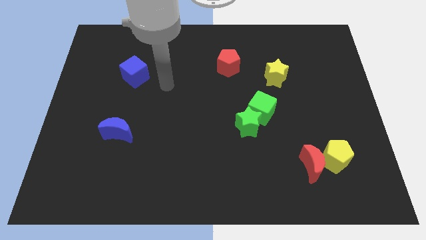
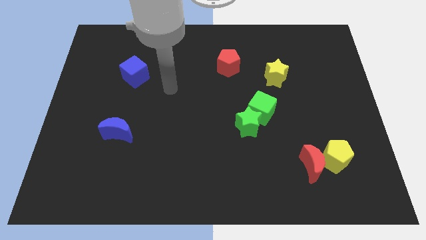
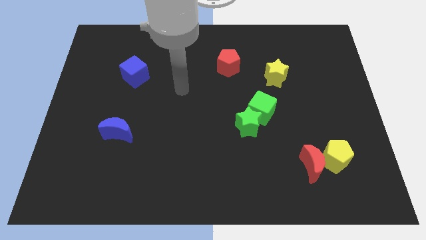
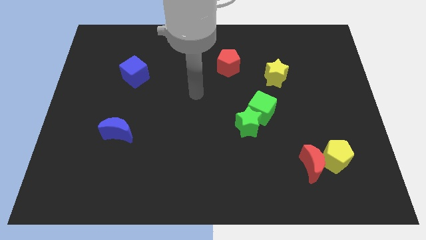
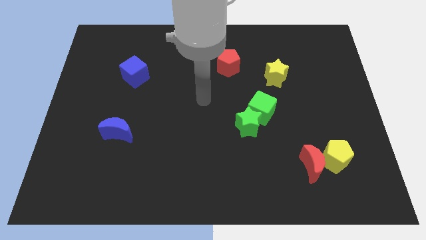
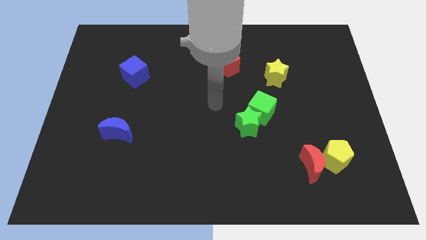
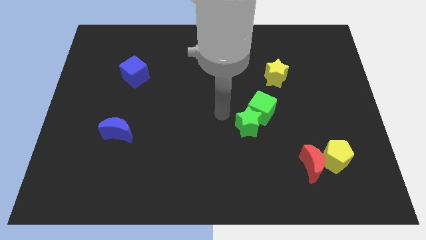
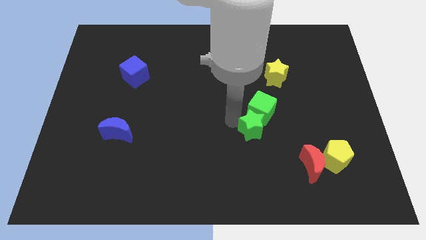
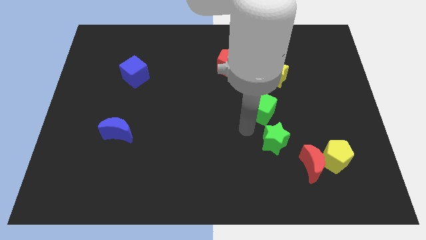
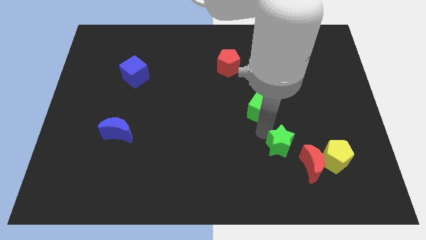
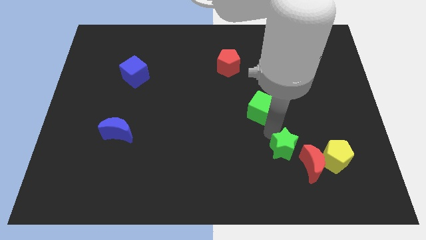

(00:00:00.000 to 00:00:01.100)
move the green cube away from the green star

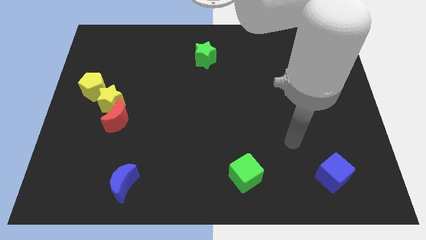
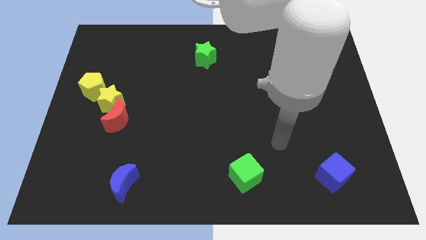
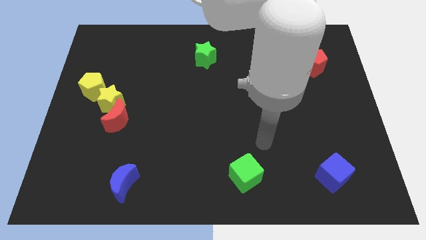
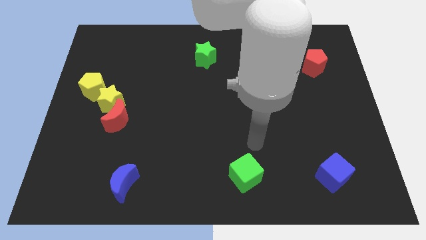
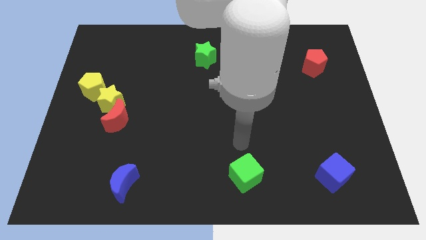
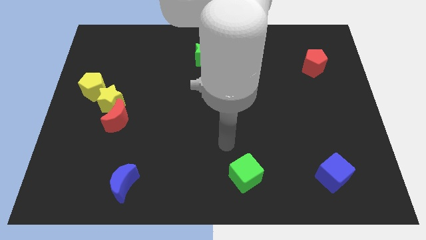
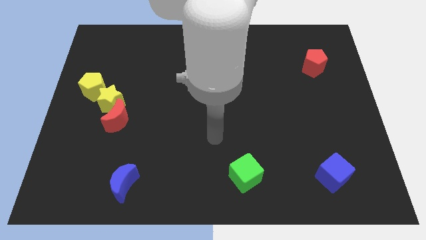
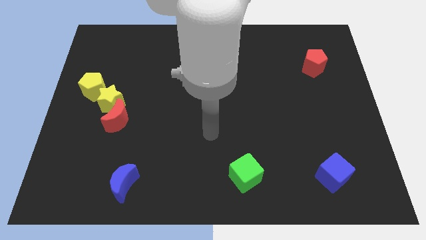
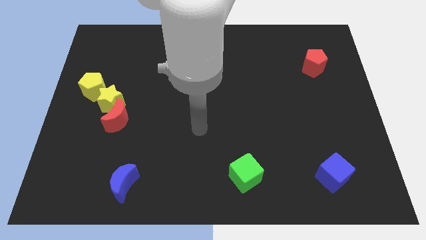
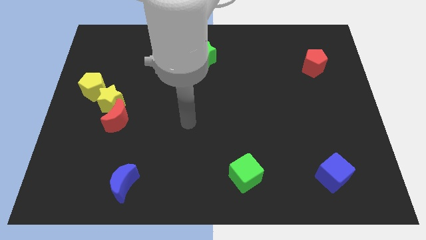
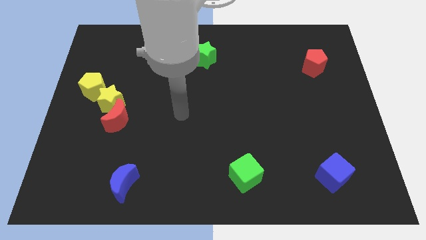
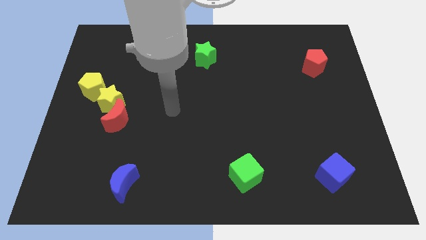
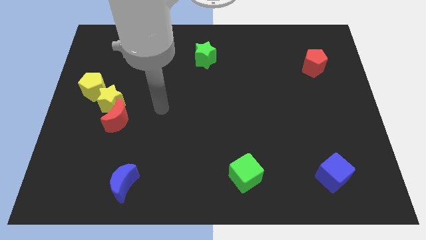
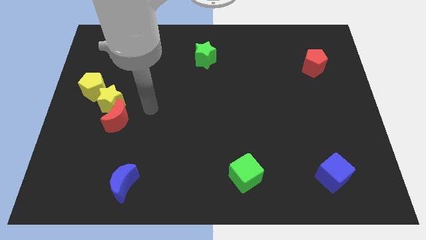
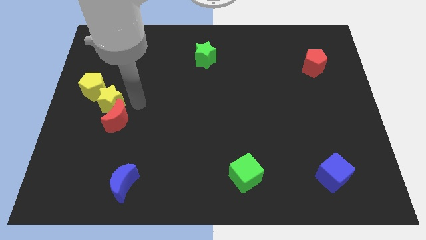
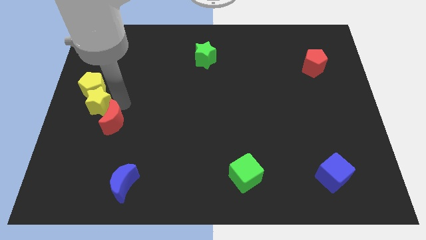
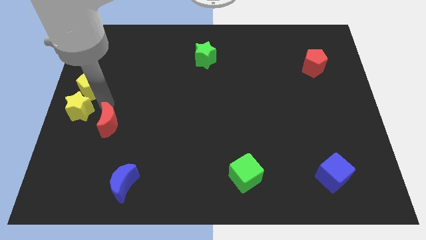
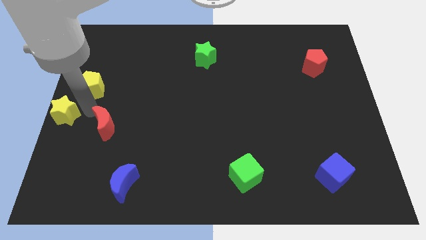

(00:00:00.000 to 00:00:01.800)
separate the red moon from the yellow star

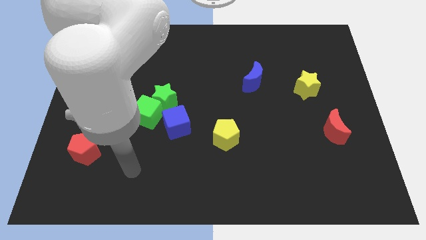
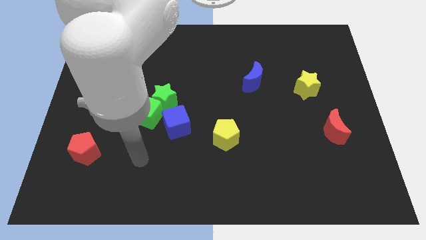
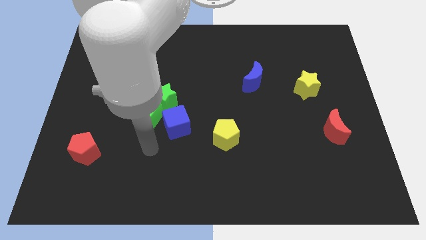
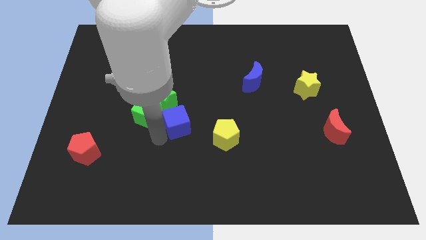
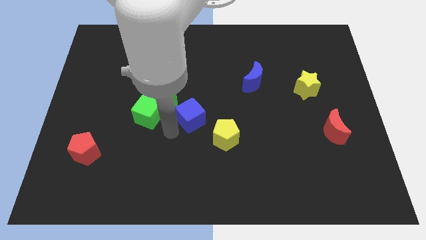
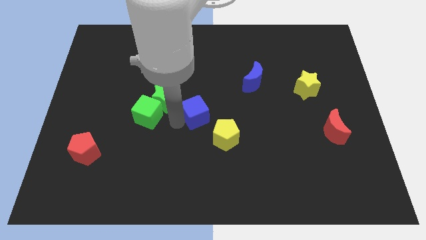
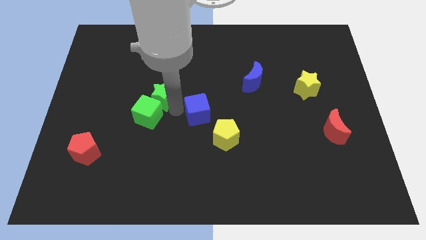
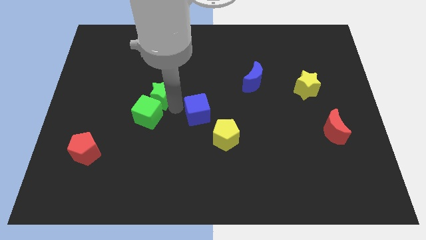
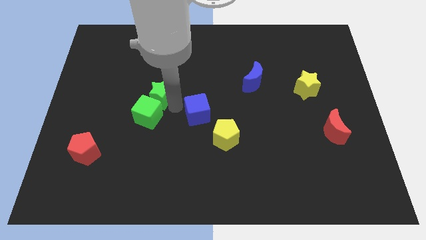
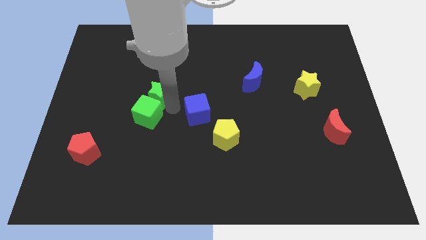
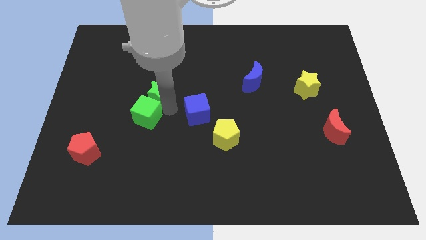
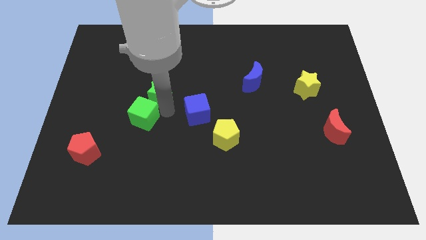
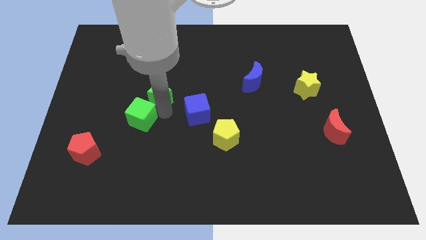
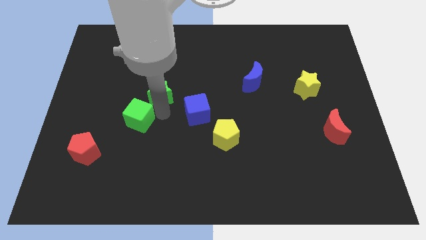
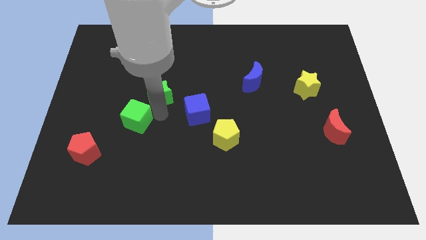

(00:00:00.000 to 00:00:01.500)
move the green cube away from the green star and blue cube

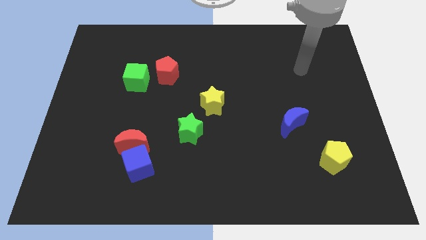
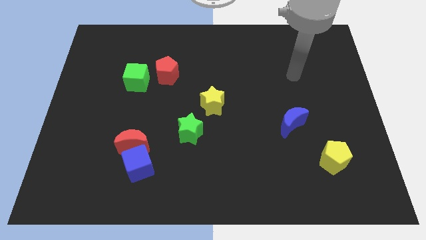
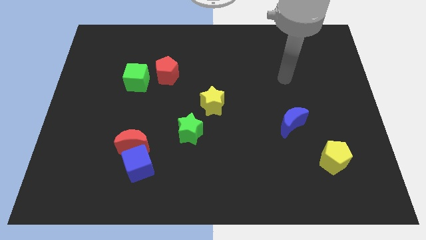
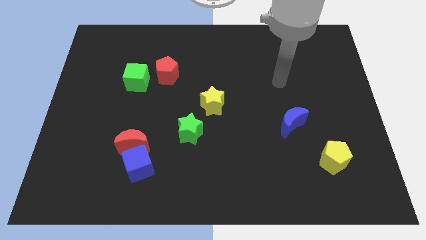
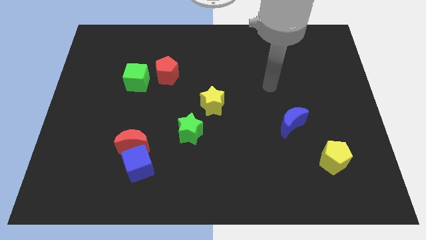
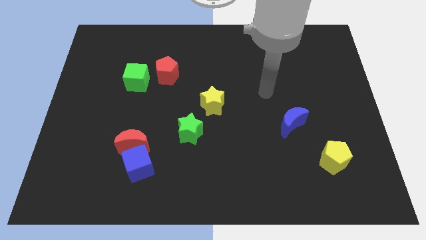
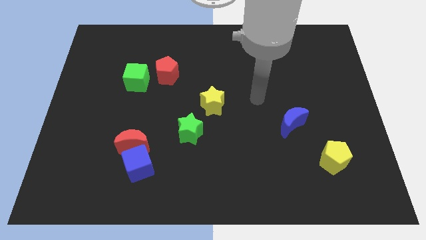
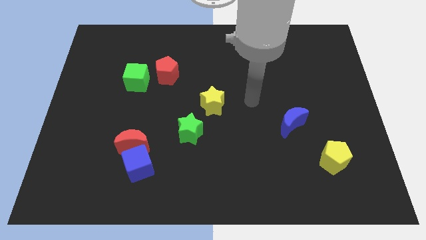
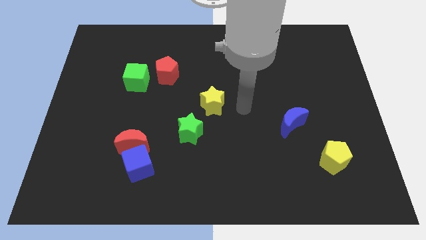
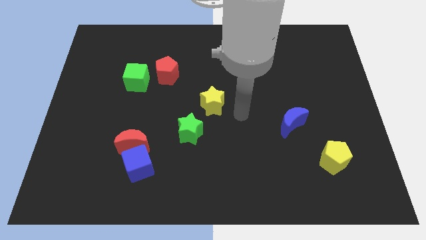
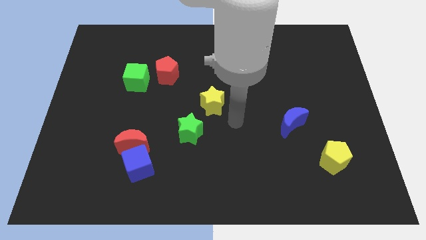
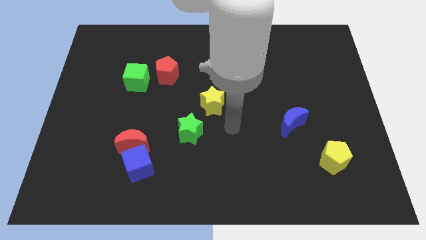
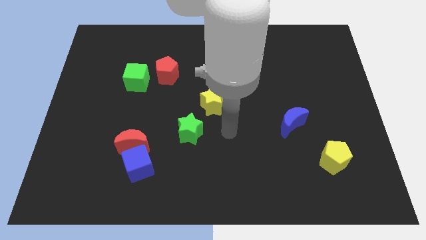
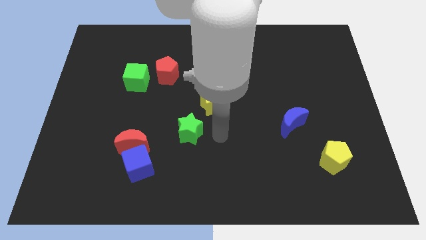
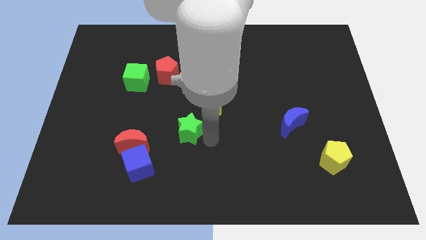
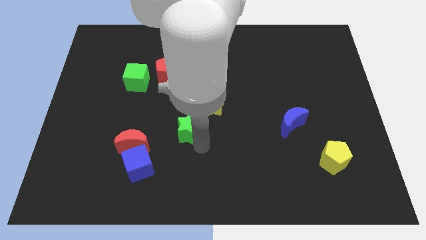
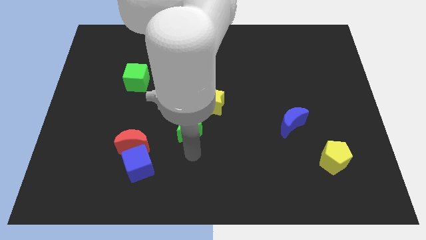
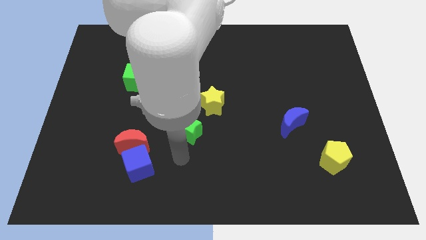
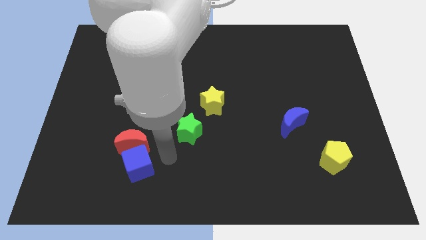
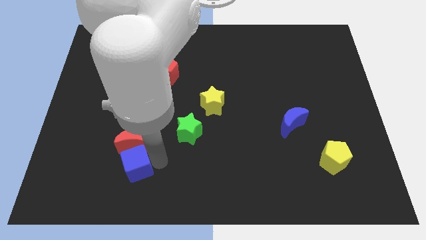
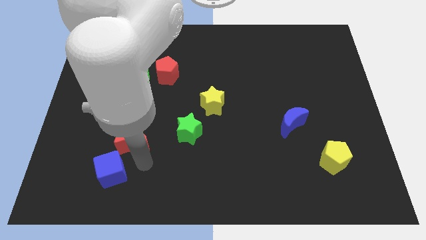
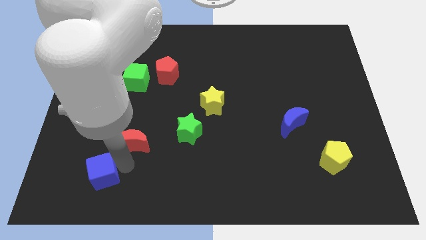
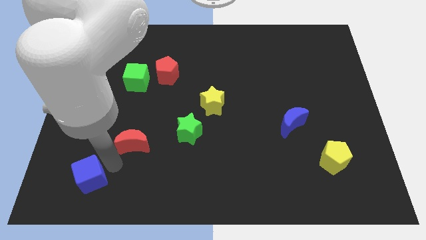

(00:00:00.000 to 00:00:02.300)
pull the red moon apart from the blue cube

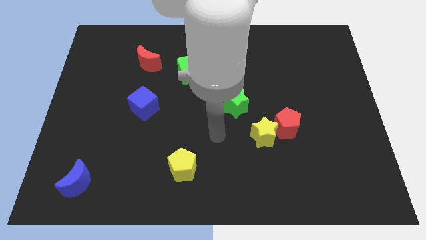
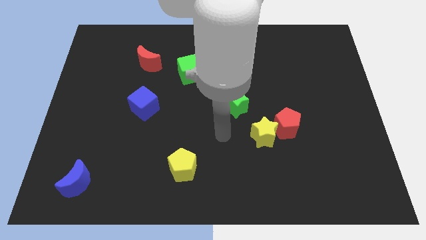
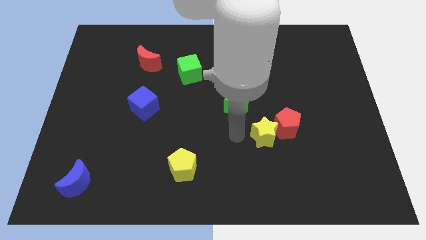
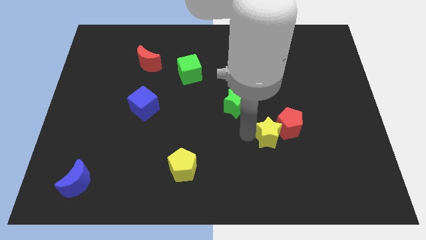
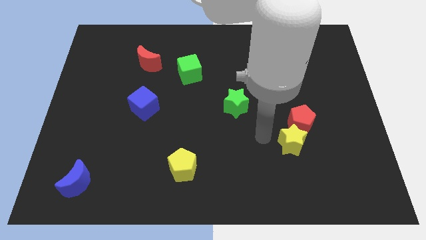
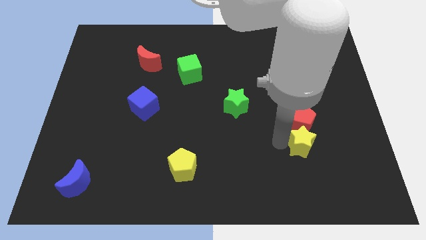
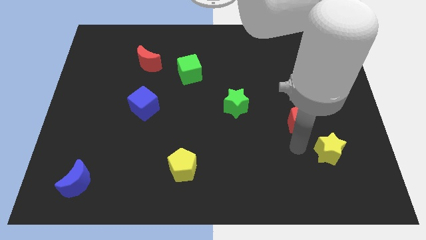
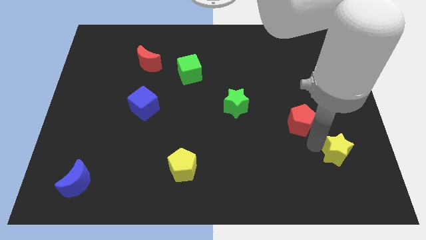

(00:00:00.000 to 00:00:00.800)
separate the red pentagon from the yellow star

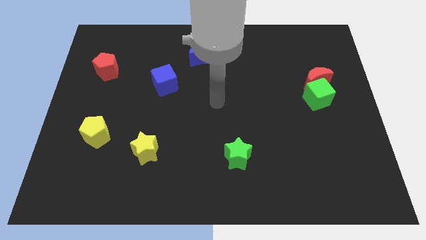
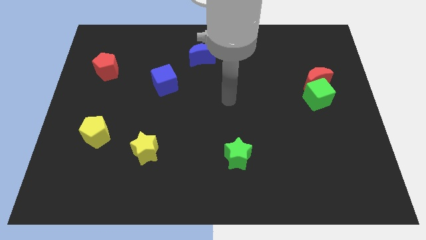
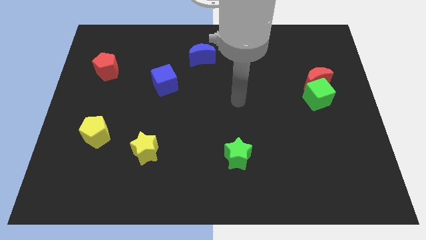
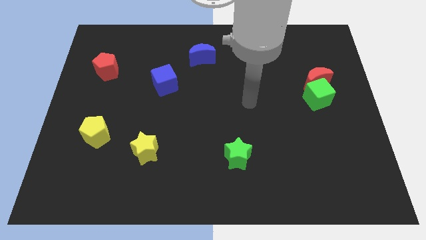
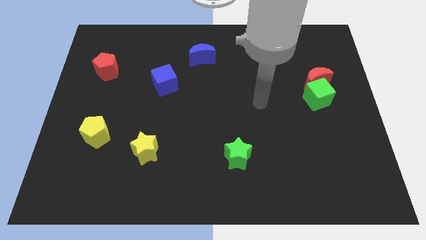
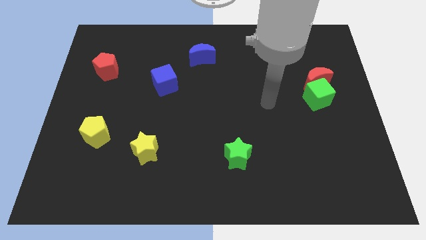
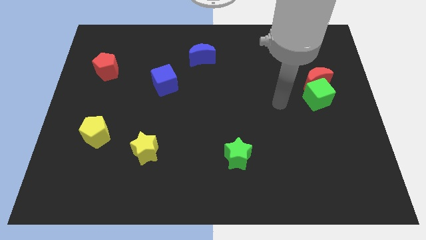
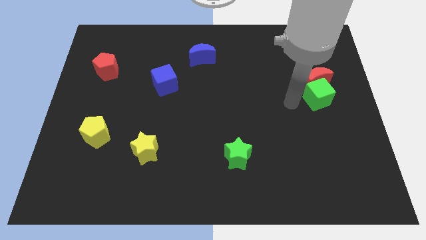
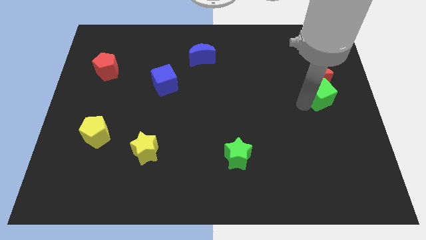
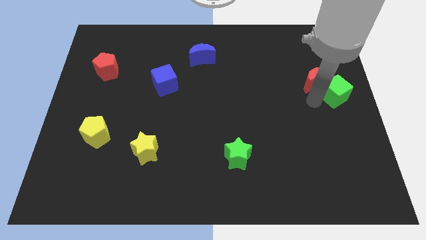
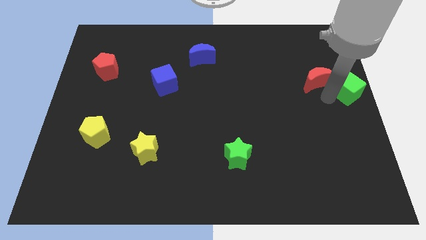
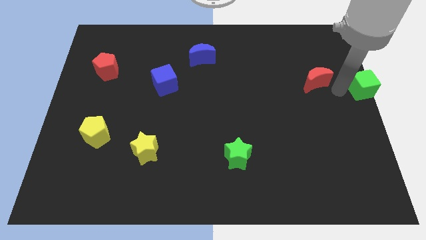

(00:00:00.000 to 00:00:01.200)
separate the red moon from the green cube

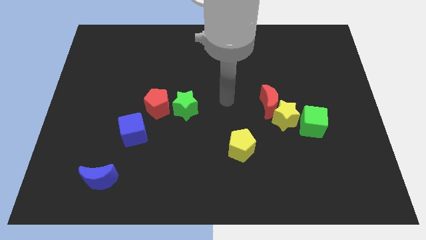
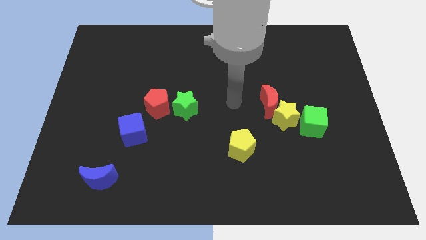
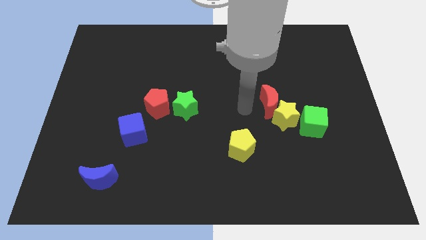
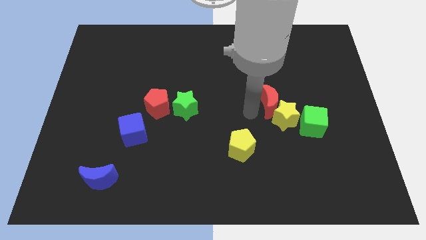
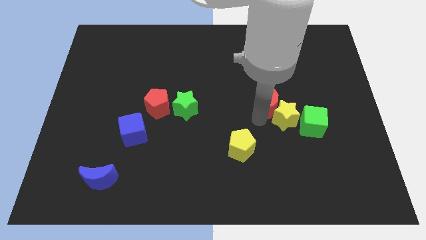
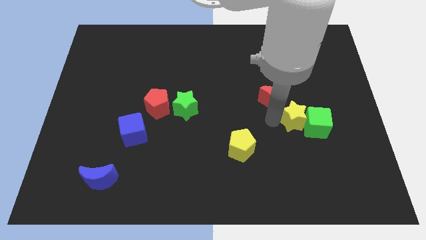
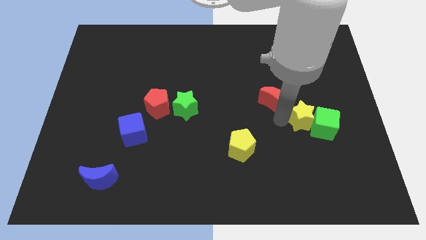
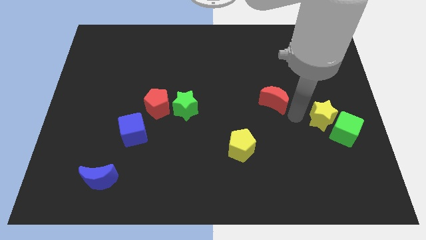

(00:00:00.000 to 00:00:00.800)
move the red moon away from the yellow star
